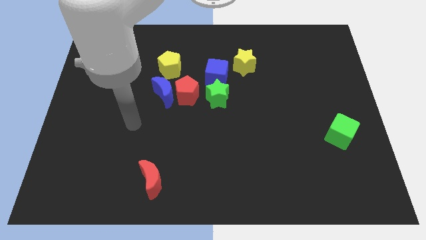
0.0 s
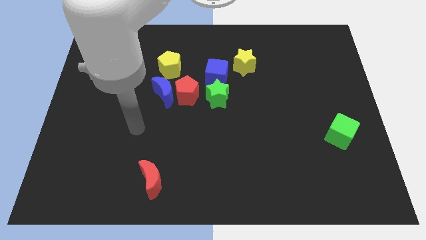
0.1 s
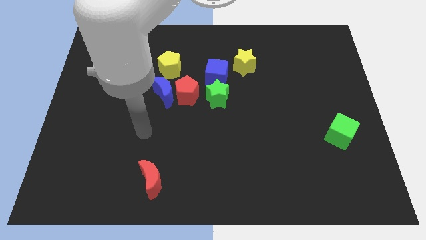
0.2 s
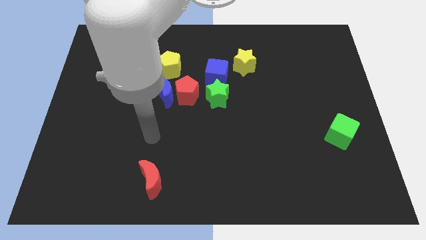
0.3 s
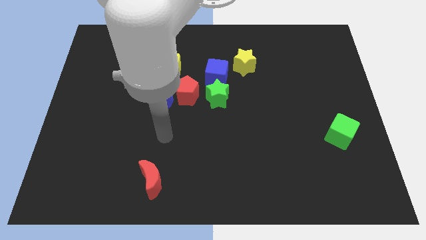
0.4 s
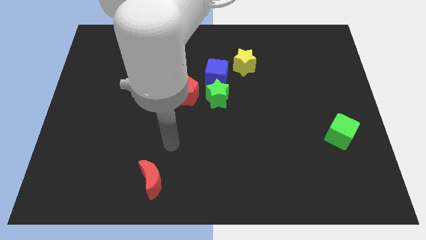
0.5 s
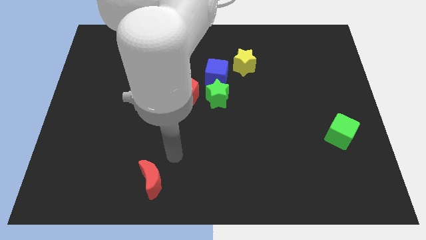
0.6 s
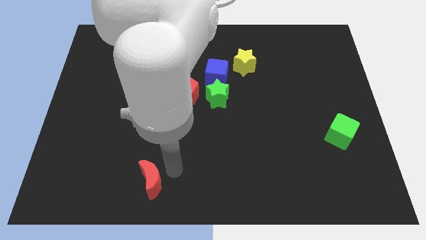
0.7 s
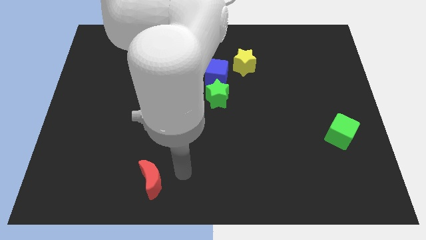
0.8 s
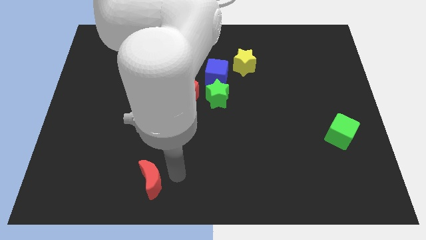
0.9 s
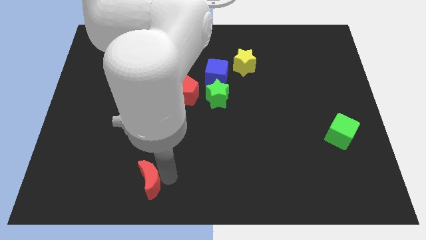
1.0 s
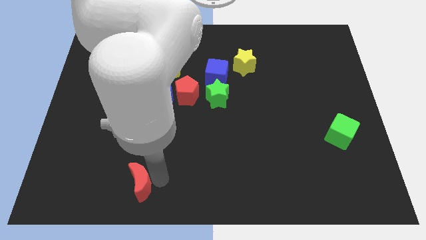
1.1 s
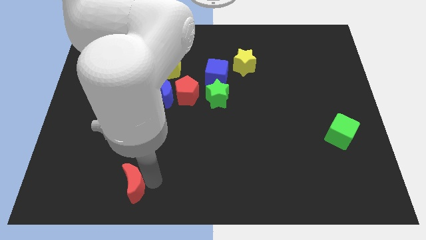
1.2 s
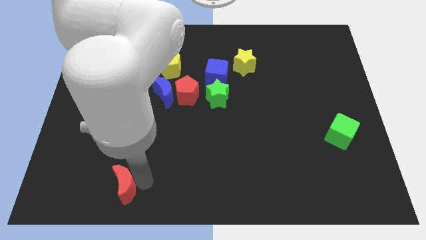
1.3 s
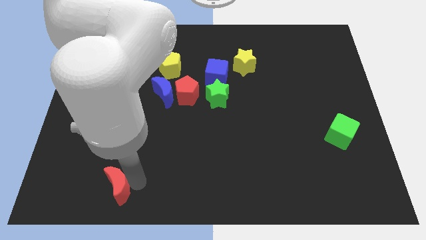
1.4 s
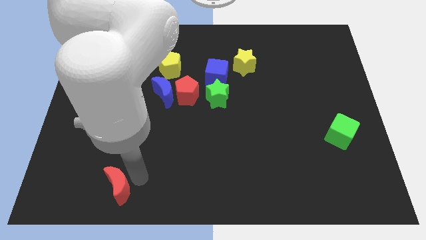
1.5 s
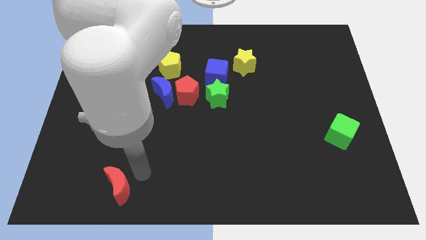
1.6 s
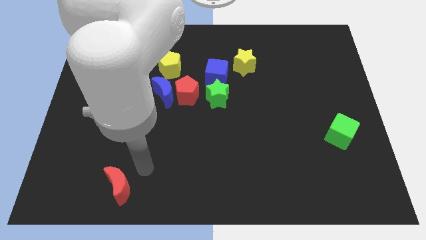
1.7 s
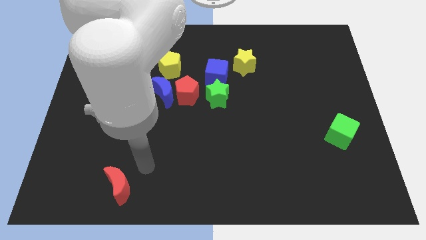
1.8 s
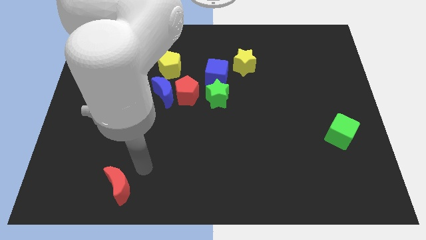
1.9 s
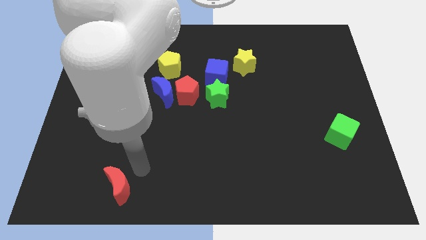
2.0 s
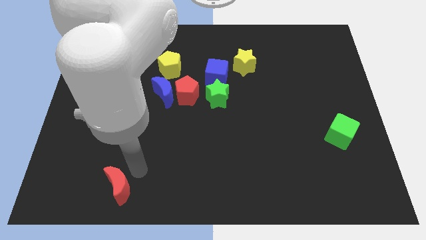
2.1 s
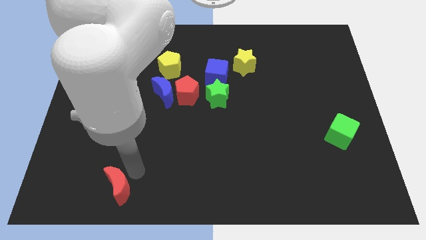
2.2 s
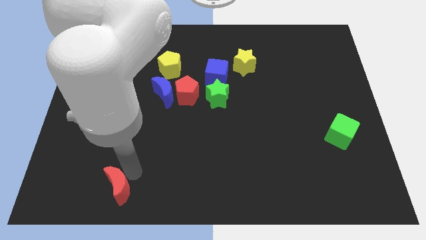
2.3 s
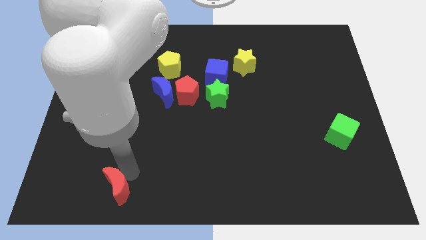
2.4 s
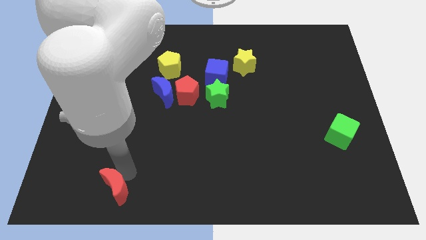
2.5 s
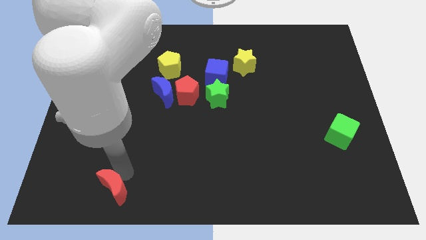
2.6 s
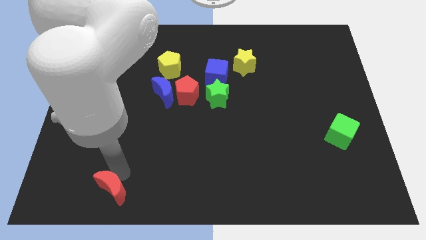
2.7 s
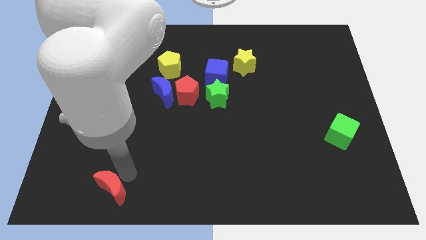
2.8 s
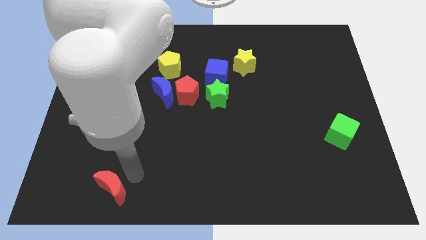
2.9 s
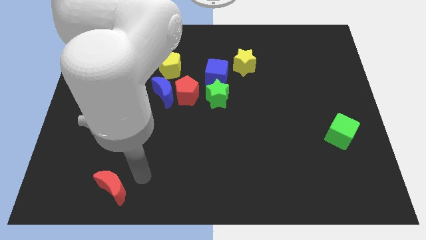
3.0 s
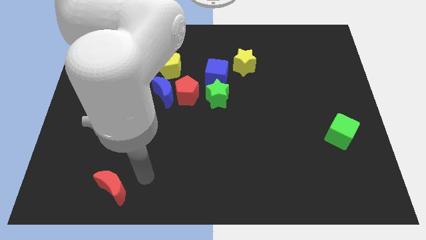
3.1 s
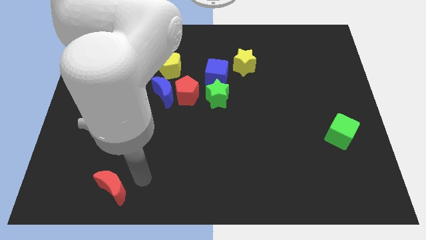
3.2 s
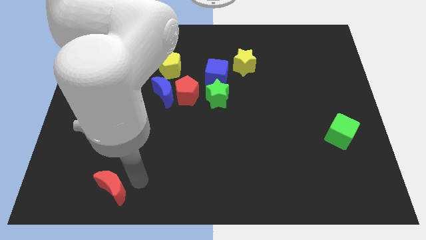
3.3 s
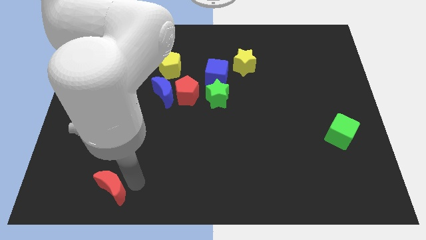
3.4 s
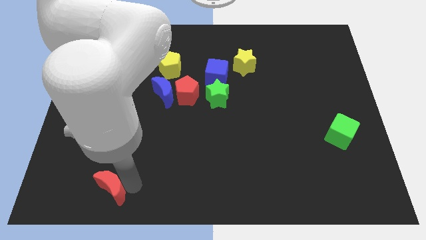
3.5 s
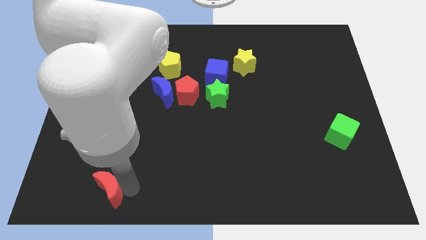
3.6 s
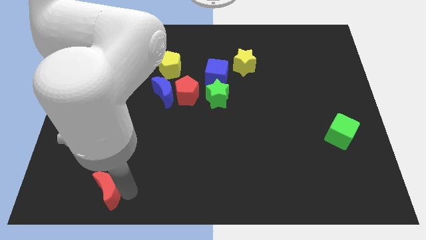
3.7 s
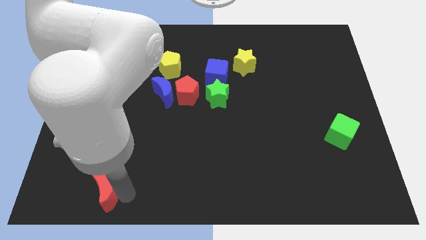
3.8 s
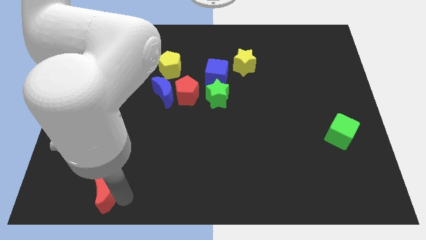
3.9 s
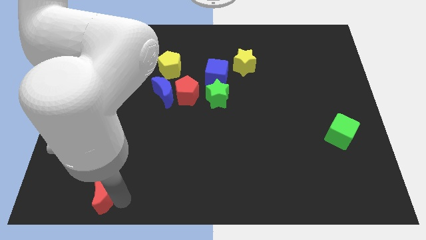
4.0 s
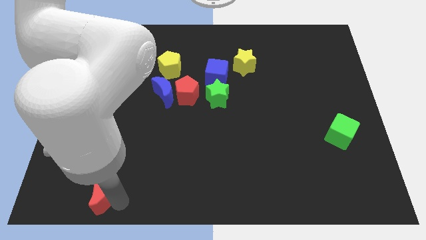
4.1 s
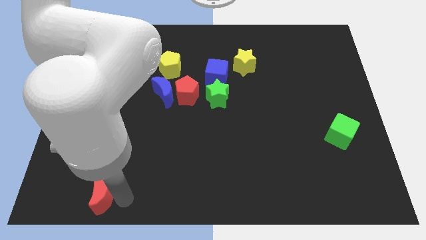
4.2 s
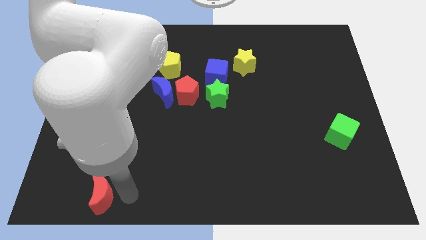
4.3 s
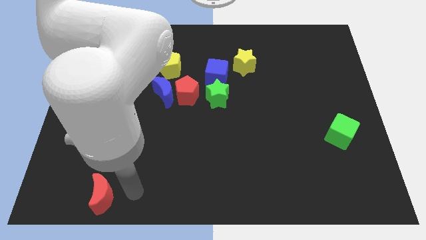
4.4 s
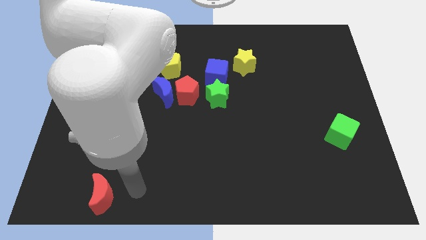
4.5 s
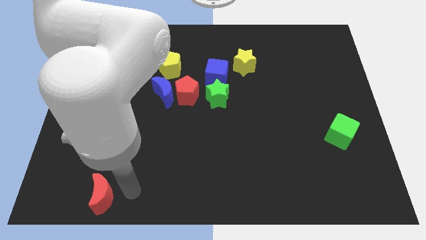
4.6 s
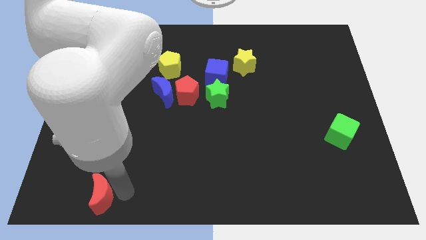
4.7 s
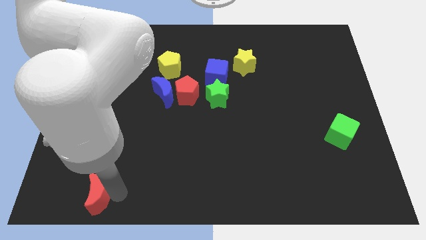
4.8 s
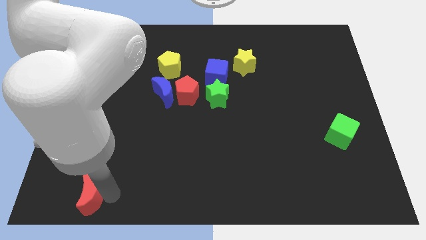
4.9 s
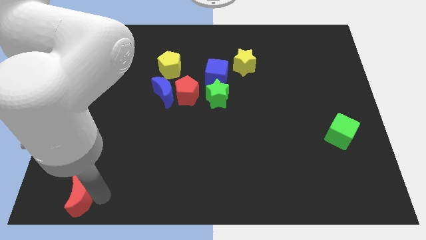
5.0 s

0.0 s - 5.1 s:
push the red moon to the bottom left of the board

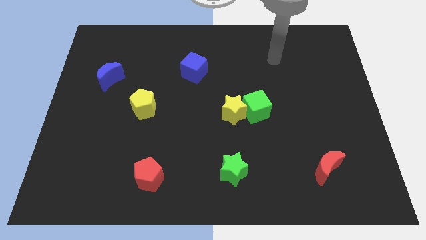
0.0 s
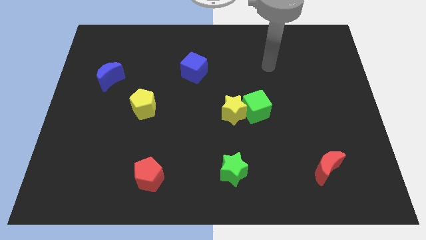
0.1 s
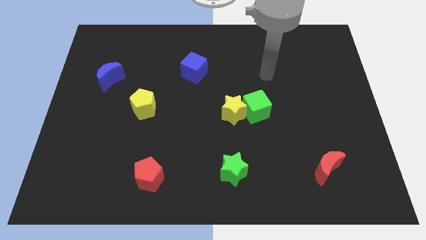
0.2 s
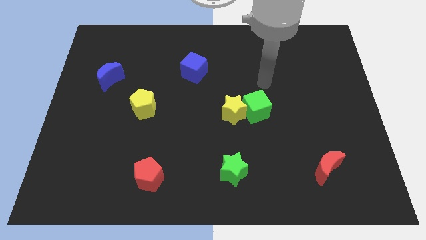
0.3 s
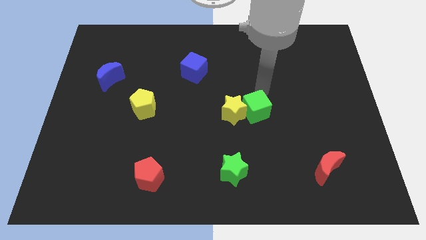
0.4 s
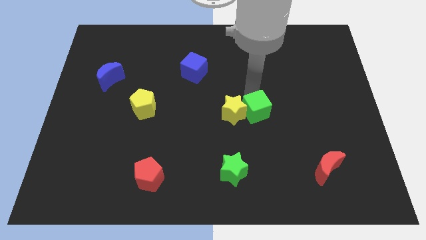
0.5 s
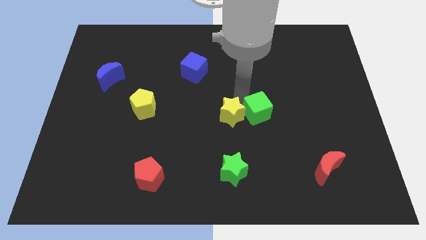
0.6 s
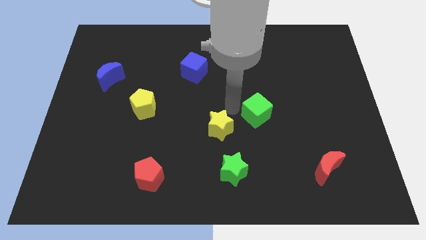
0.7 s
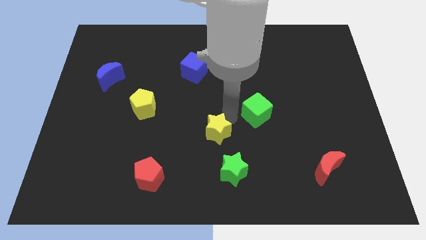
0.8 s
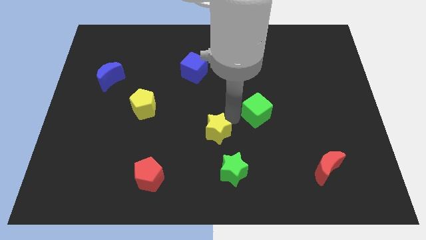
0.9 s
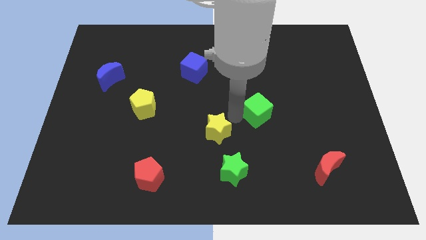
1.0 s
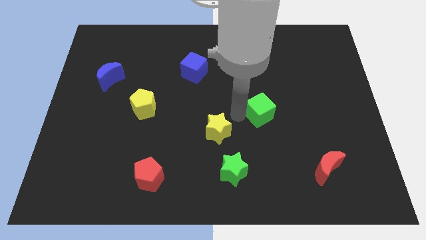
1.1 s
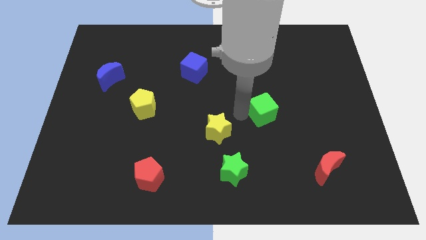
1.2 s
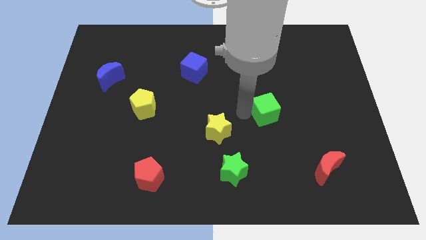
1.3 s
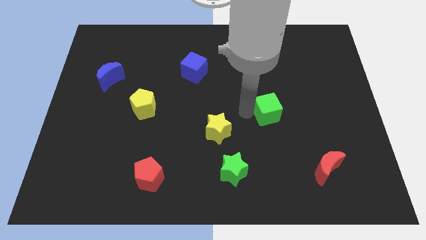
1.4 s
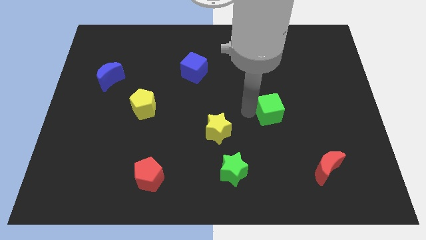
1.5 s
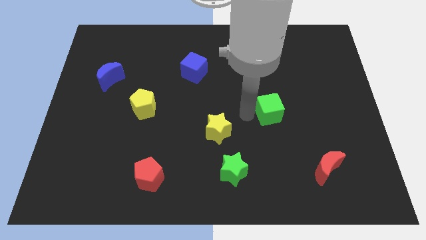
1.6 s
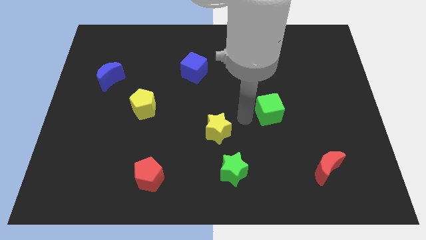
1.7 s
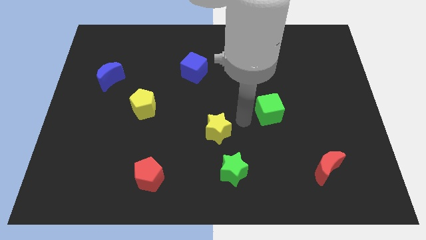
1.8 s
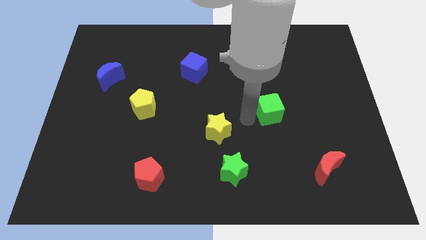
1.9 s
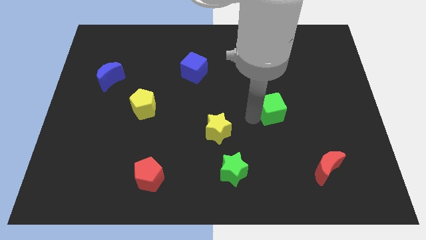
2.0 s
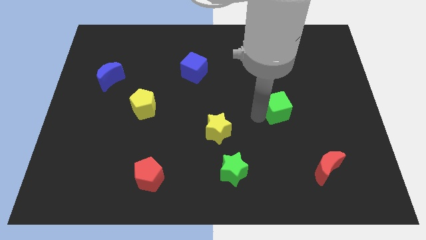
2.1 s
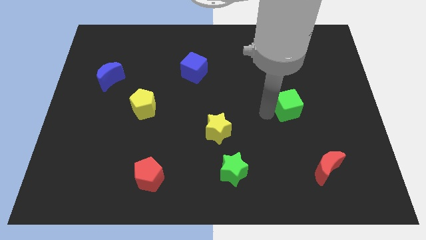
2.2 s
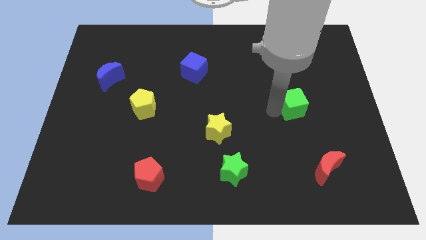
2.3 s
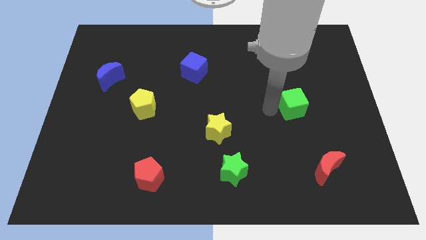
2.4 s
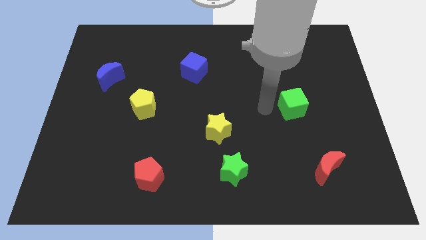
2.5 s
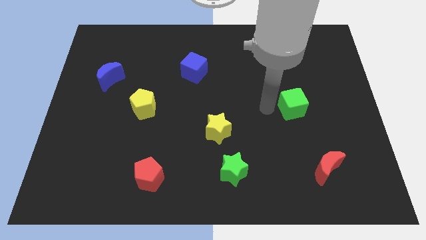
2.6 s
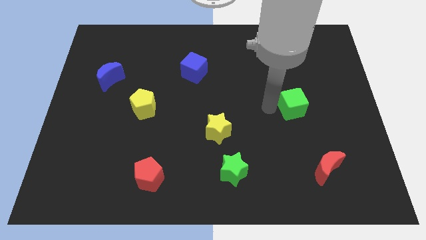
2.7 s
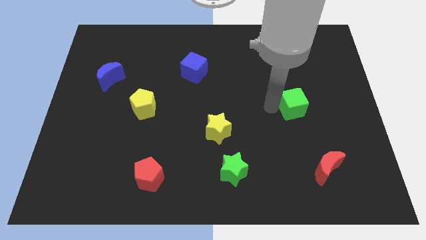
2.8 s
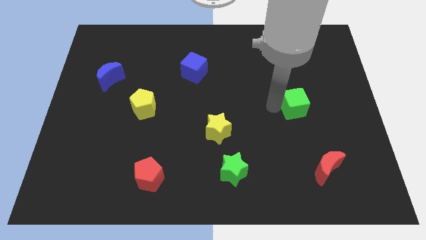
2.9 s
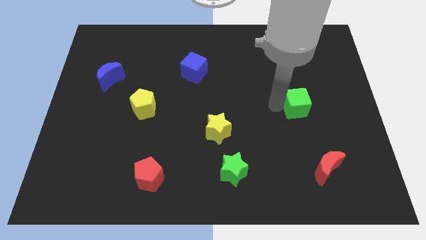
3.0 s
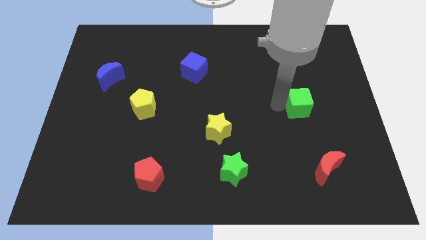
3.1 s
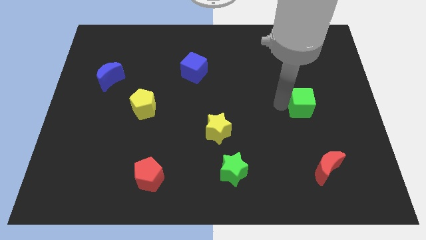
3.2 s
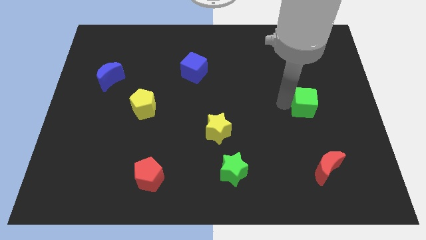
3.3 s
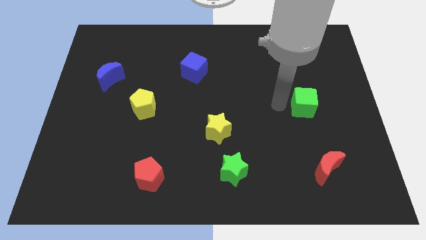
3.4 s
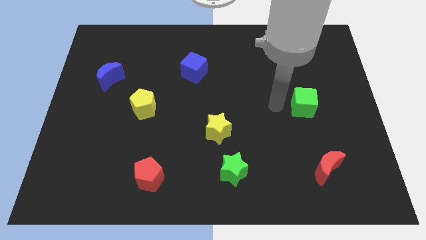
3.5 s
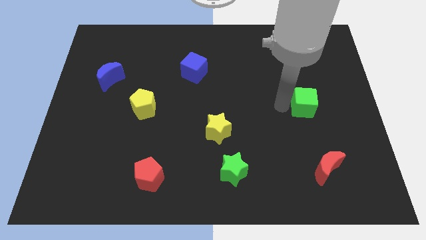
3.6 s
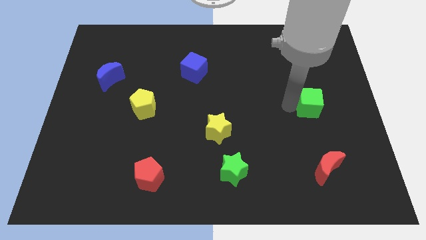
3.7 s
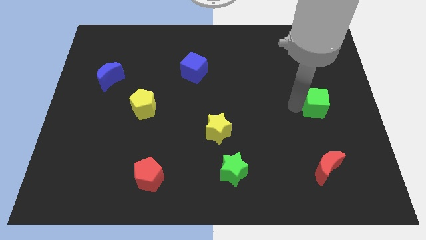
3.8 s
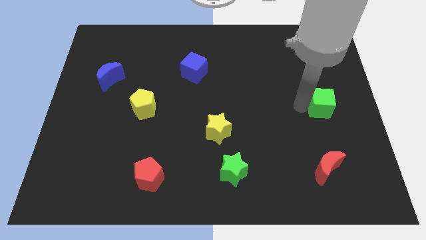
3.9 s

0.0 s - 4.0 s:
put the green cube to the center right
